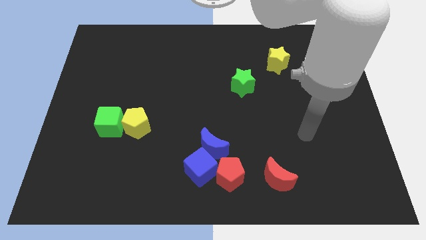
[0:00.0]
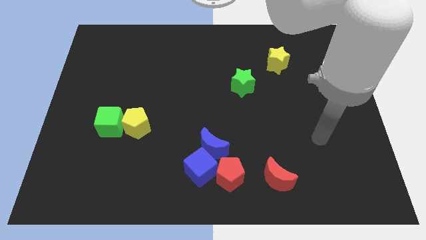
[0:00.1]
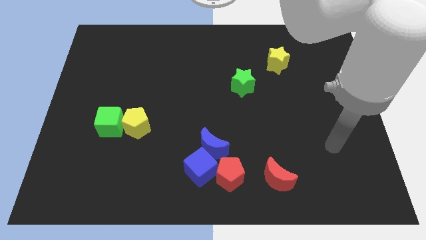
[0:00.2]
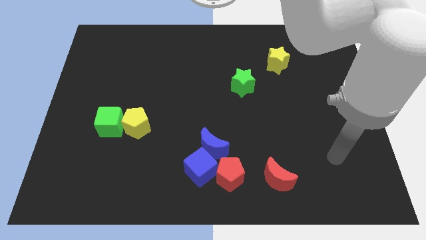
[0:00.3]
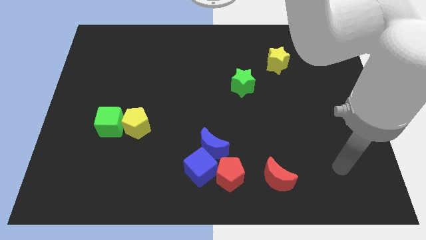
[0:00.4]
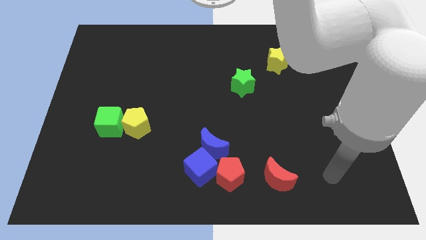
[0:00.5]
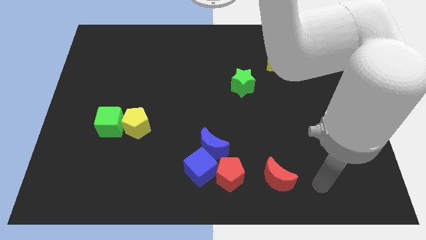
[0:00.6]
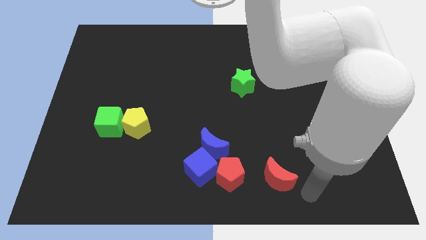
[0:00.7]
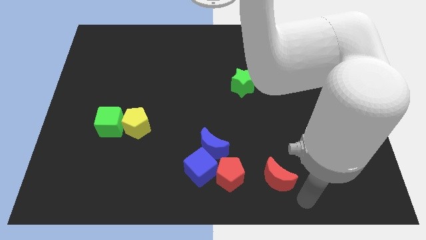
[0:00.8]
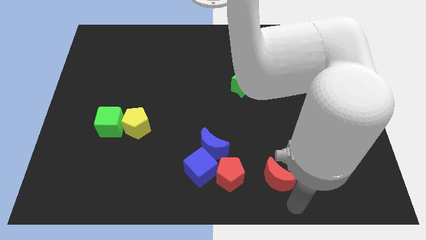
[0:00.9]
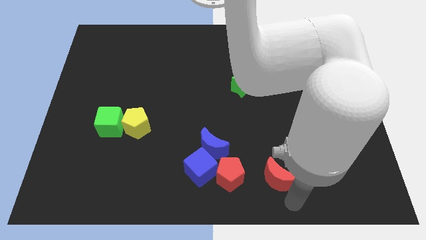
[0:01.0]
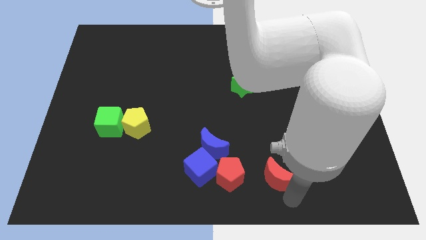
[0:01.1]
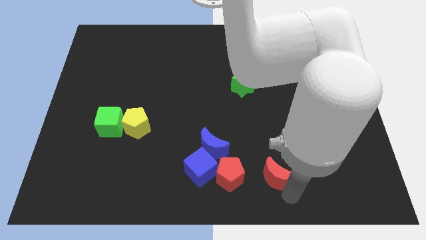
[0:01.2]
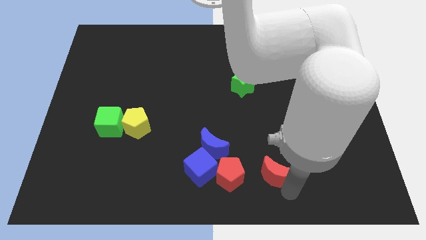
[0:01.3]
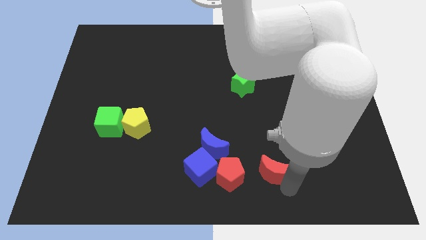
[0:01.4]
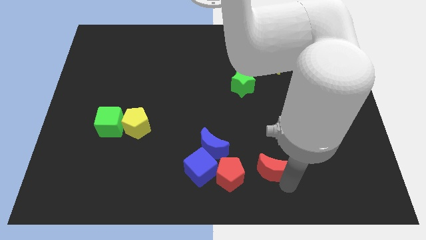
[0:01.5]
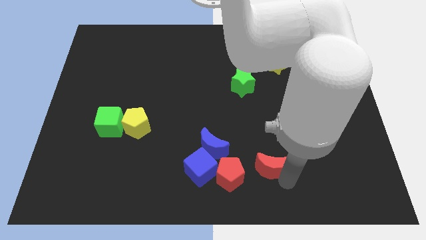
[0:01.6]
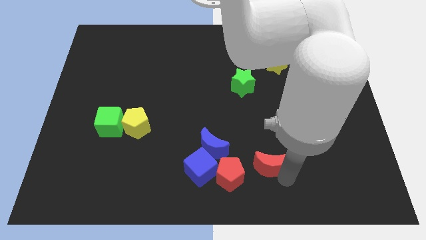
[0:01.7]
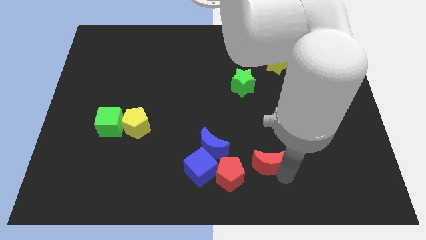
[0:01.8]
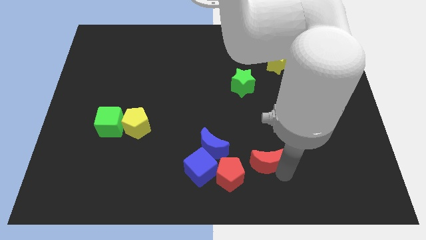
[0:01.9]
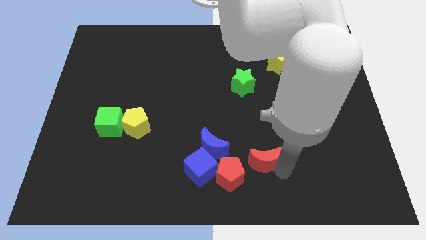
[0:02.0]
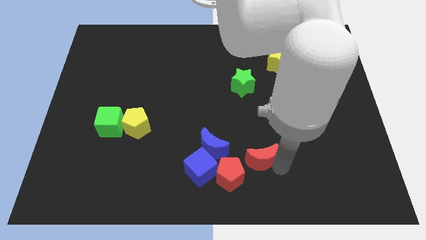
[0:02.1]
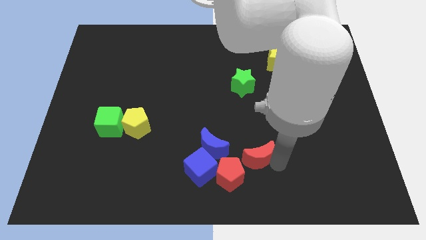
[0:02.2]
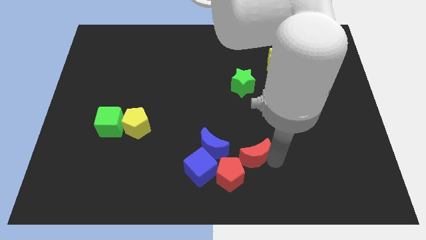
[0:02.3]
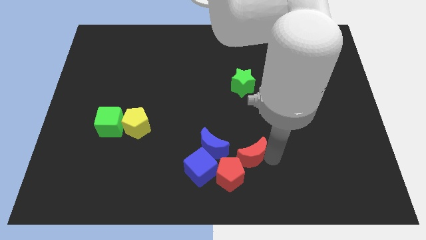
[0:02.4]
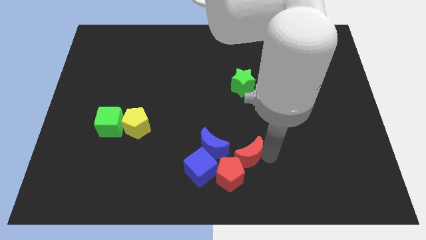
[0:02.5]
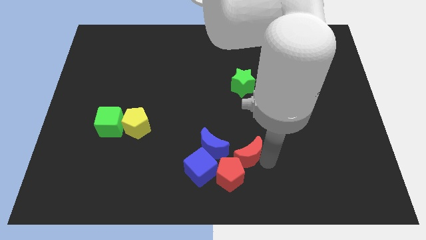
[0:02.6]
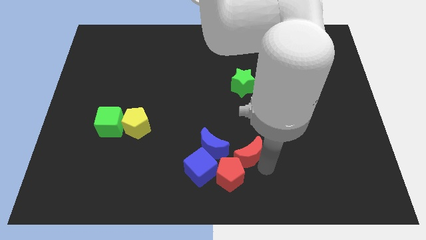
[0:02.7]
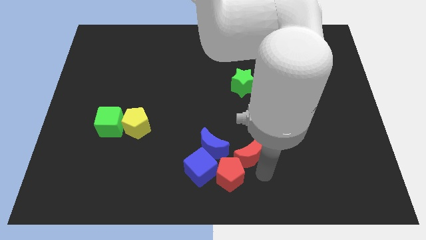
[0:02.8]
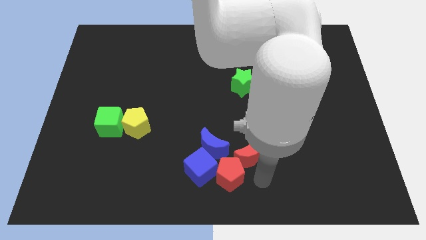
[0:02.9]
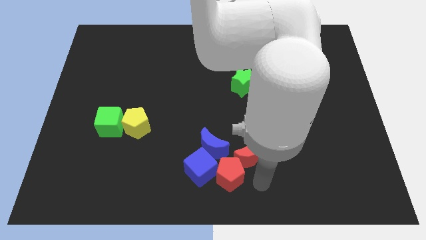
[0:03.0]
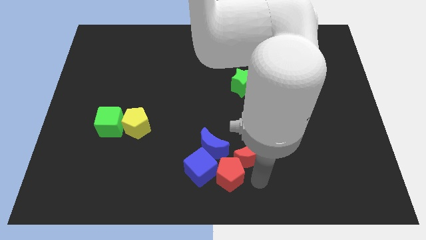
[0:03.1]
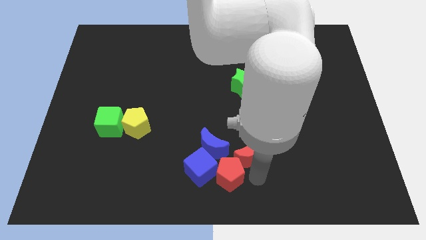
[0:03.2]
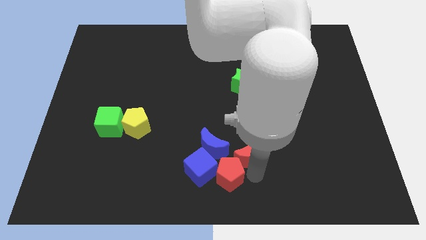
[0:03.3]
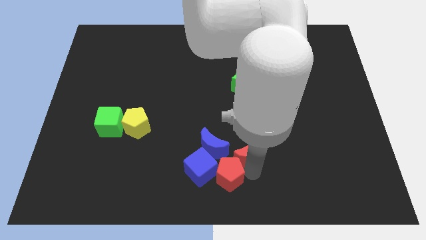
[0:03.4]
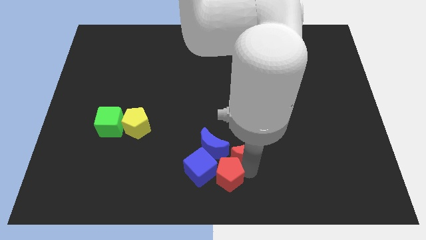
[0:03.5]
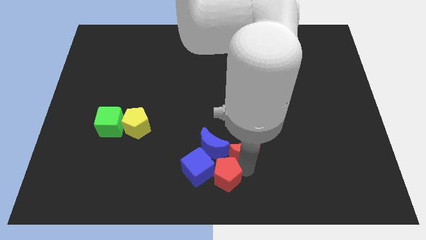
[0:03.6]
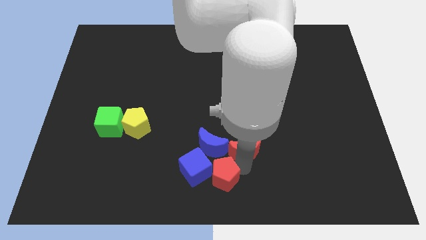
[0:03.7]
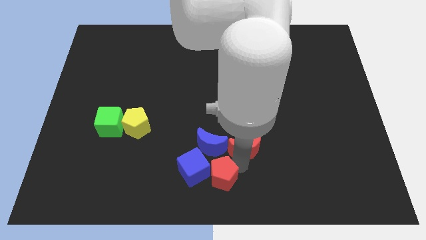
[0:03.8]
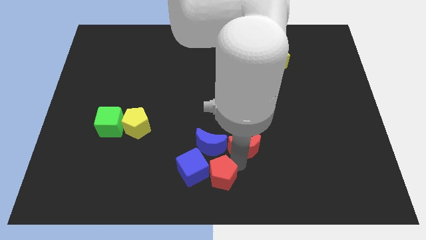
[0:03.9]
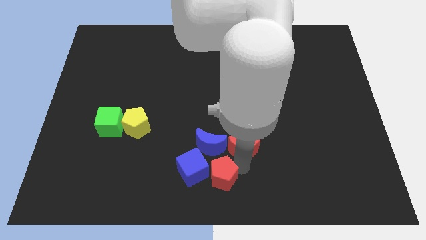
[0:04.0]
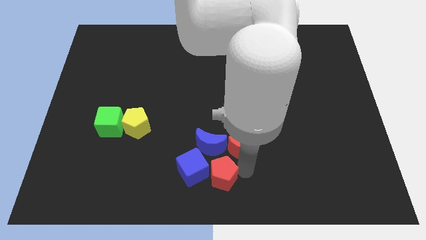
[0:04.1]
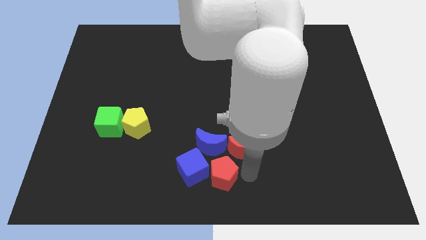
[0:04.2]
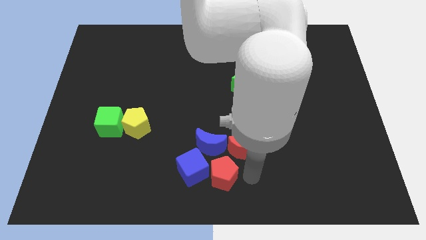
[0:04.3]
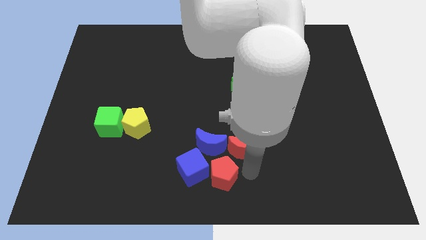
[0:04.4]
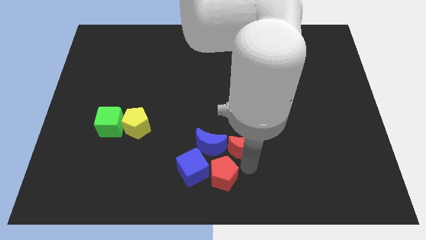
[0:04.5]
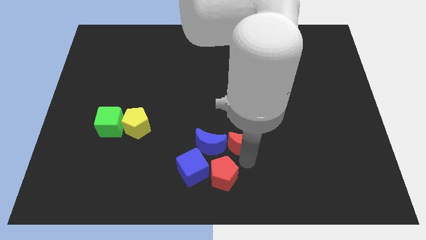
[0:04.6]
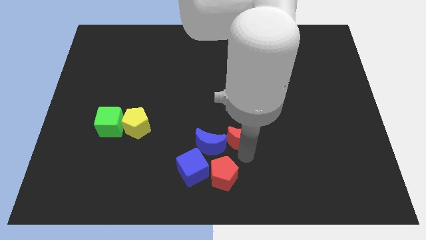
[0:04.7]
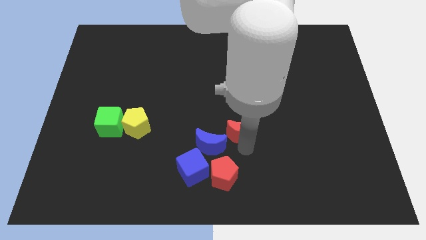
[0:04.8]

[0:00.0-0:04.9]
move the red moon to the center of the board

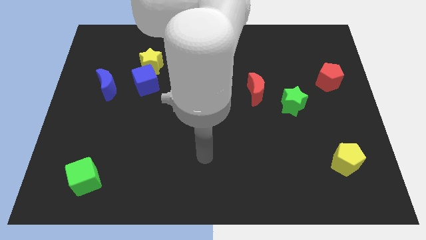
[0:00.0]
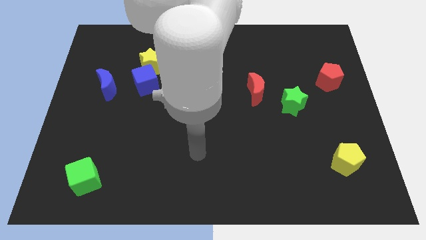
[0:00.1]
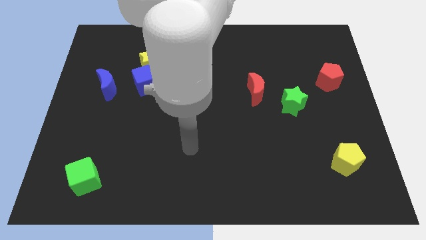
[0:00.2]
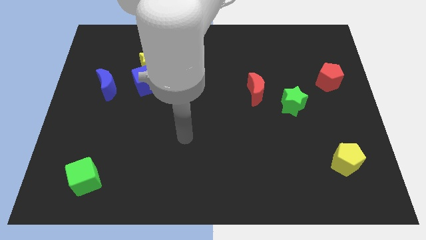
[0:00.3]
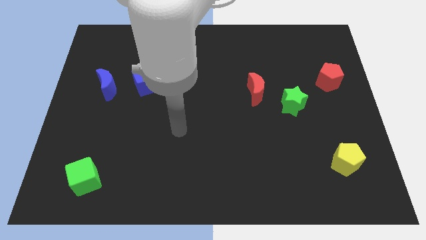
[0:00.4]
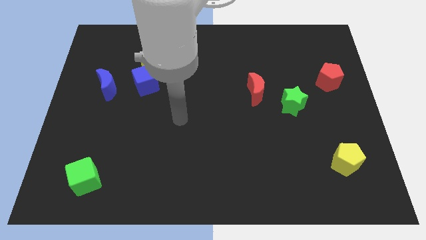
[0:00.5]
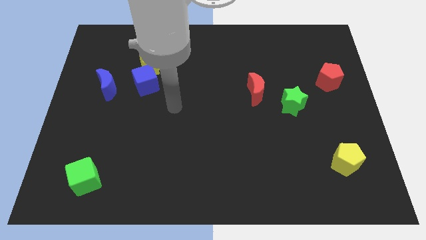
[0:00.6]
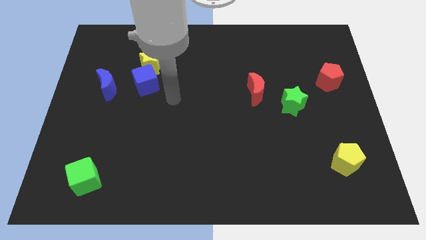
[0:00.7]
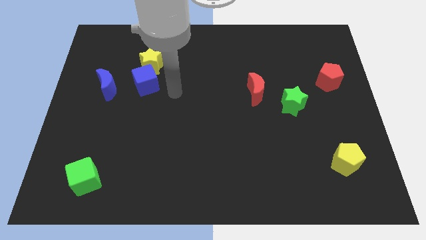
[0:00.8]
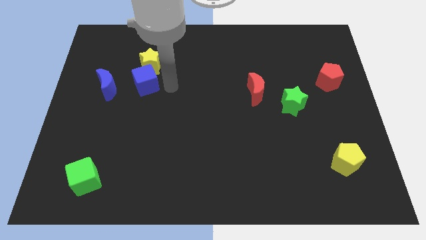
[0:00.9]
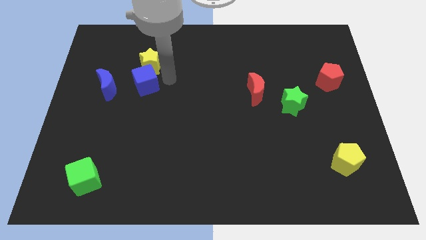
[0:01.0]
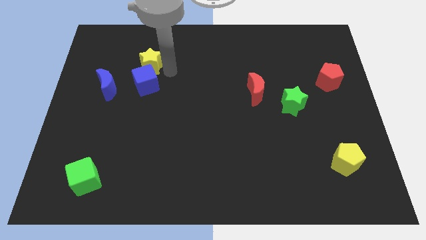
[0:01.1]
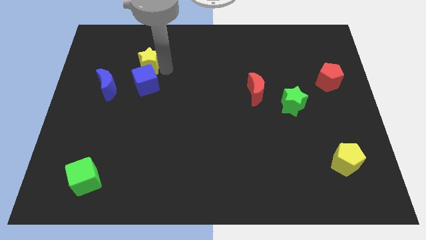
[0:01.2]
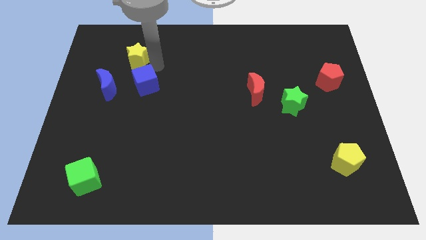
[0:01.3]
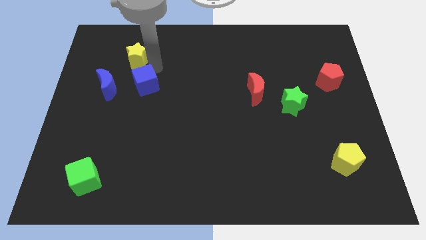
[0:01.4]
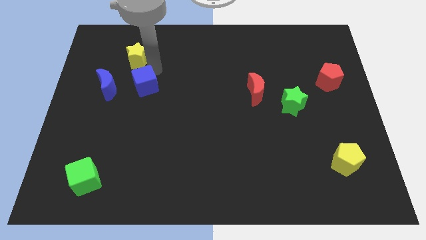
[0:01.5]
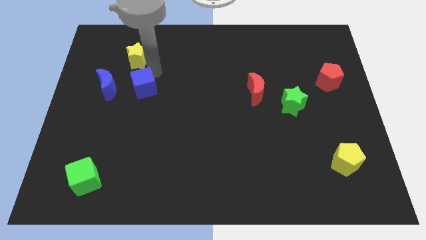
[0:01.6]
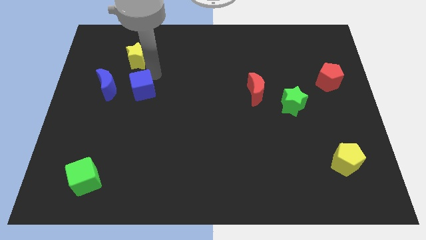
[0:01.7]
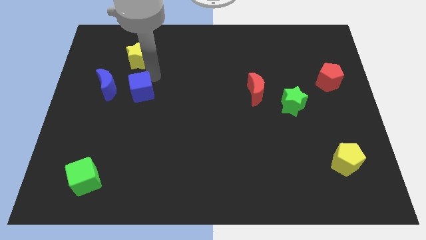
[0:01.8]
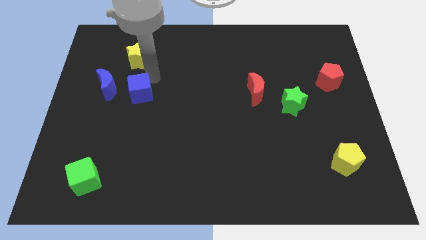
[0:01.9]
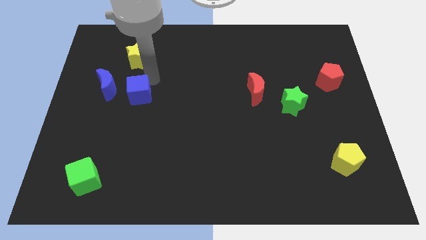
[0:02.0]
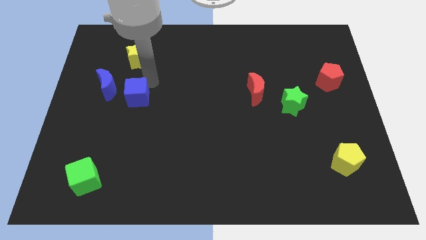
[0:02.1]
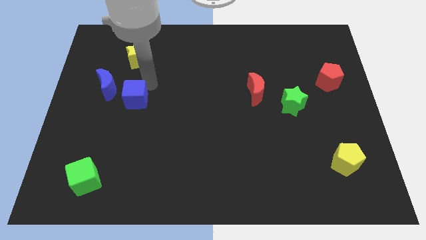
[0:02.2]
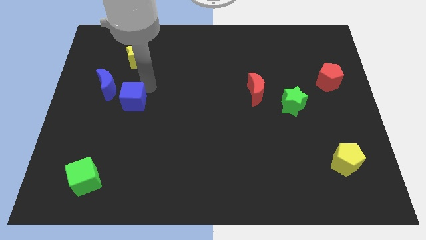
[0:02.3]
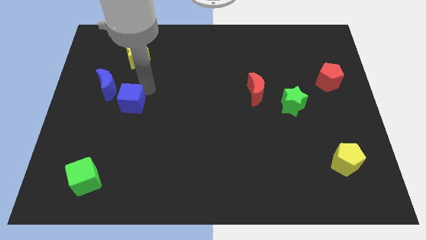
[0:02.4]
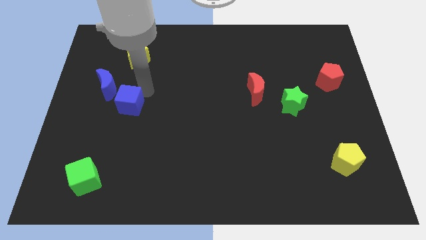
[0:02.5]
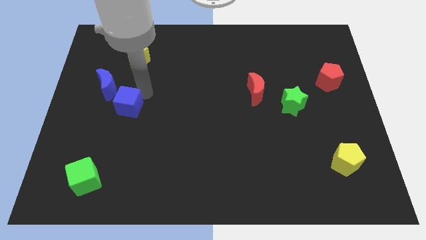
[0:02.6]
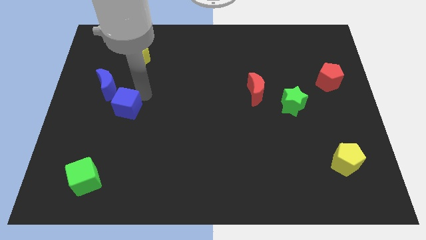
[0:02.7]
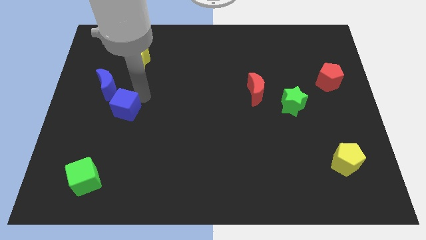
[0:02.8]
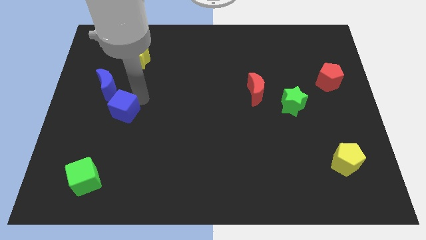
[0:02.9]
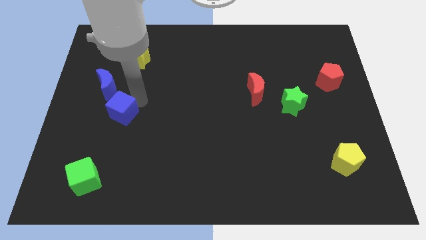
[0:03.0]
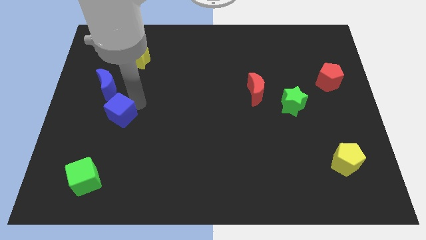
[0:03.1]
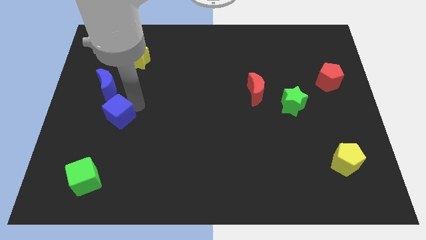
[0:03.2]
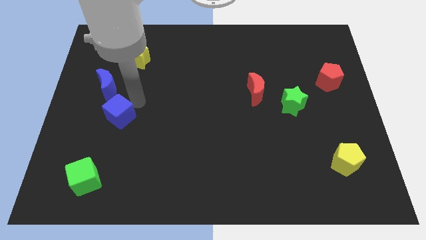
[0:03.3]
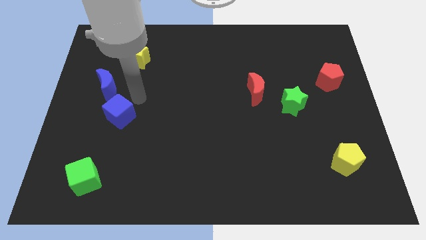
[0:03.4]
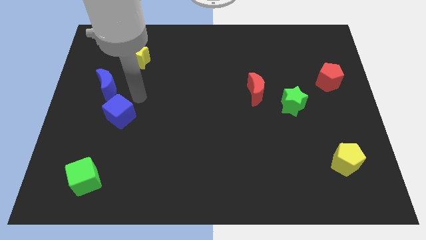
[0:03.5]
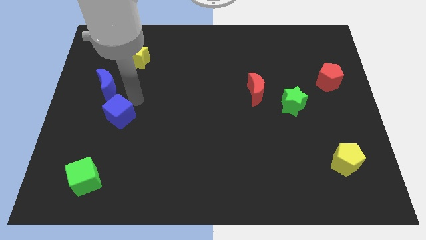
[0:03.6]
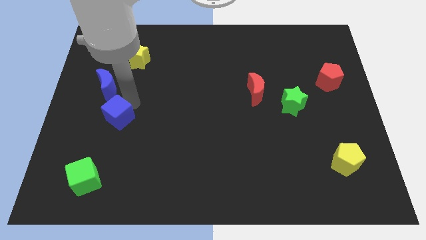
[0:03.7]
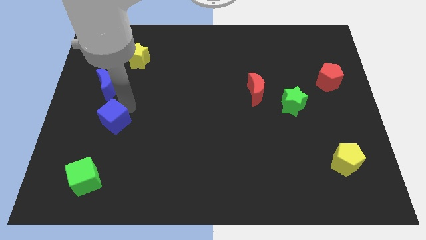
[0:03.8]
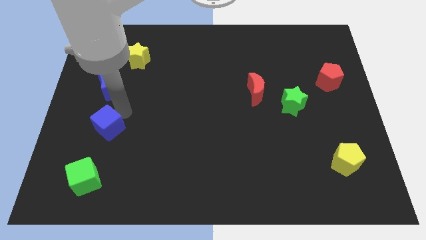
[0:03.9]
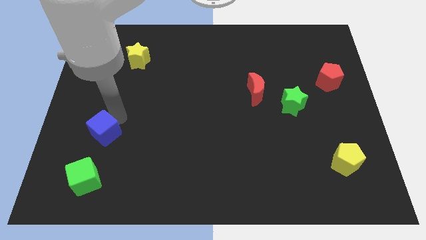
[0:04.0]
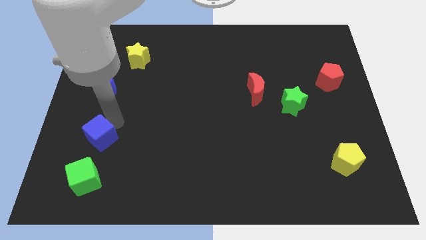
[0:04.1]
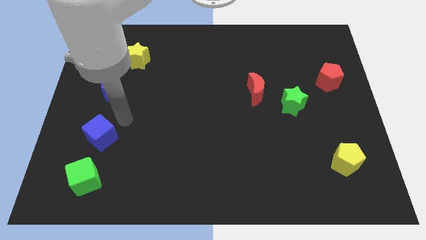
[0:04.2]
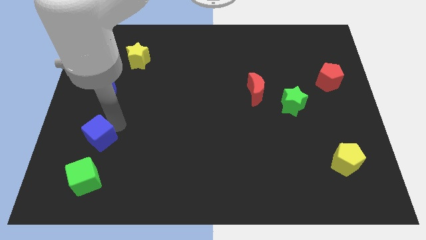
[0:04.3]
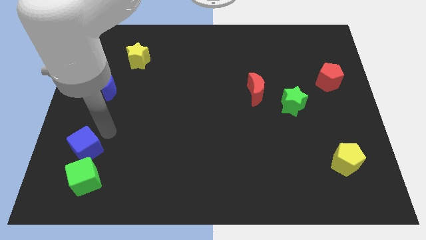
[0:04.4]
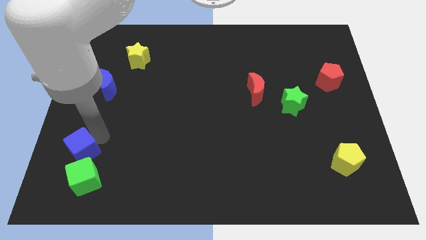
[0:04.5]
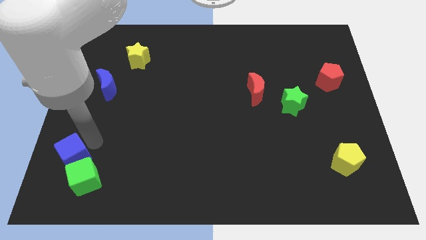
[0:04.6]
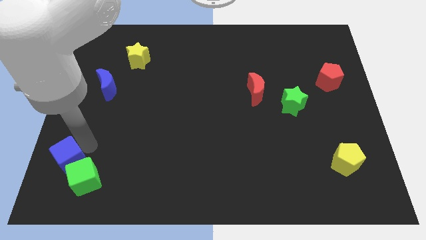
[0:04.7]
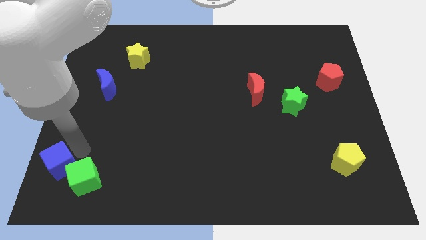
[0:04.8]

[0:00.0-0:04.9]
move the blue cube to the bottom left of the board
